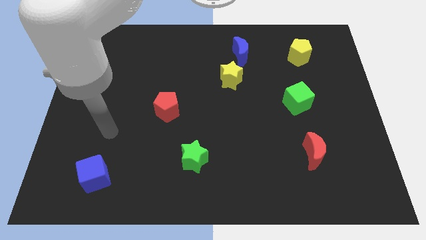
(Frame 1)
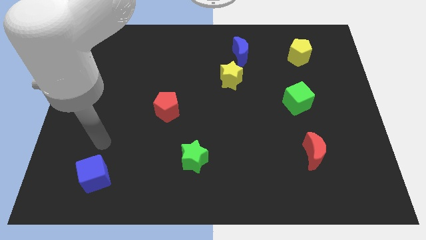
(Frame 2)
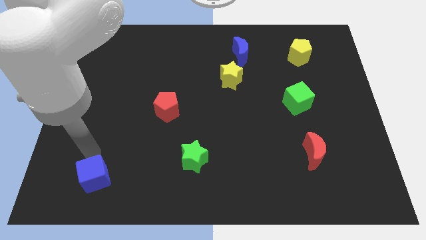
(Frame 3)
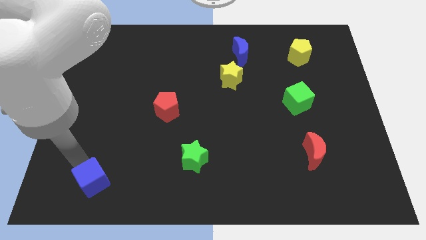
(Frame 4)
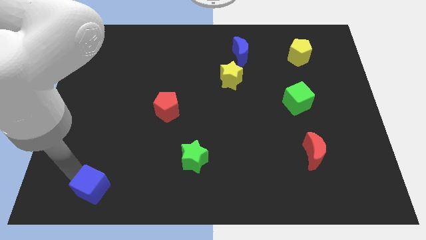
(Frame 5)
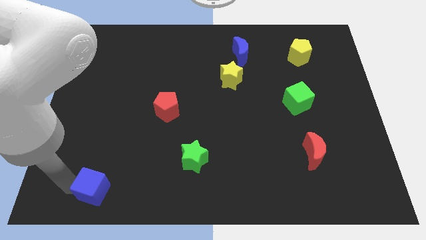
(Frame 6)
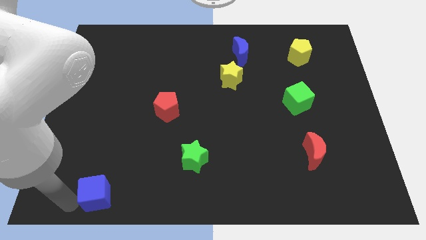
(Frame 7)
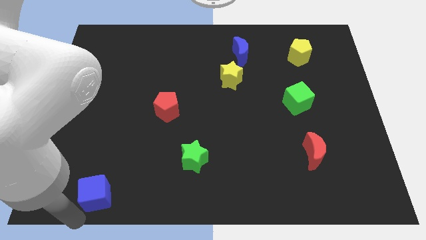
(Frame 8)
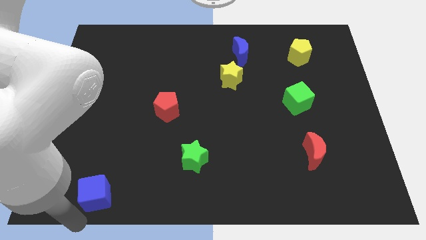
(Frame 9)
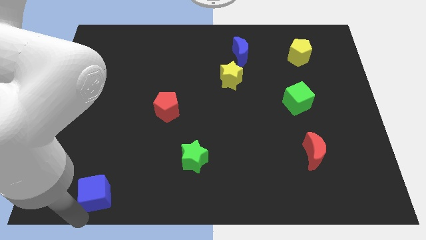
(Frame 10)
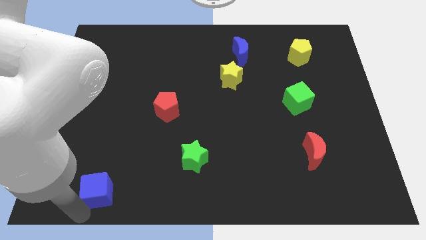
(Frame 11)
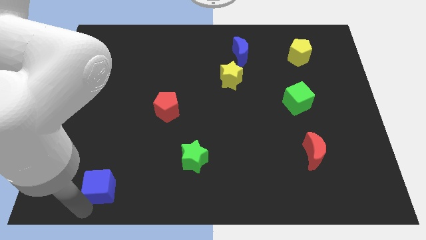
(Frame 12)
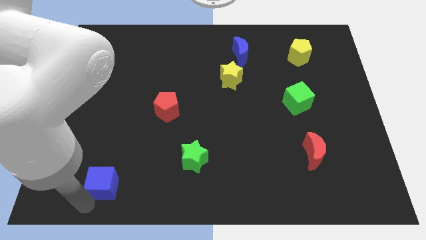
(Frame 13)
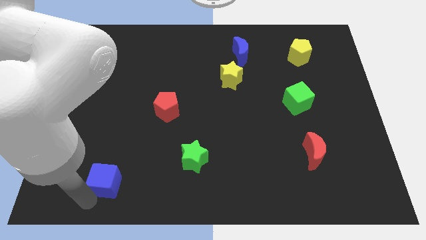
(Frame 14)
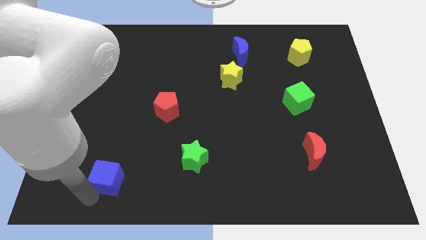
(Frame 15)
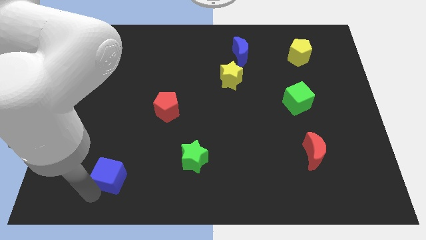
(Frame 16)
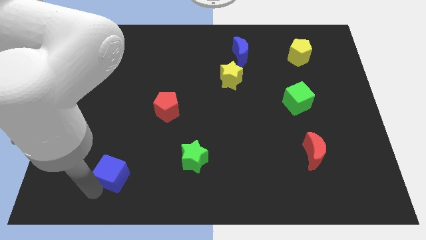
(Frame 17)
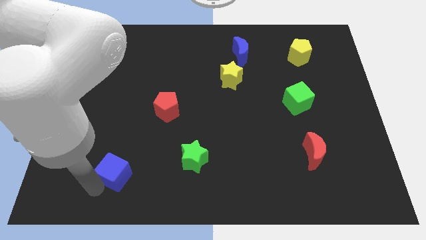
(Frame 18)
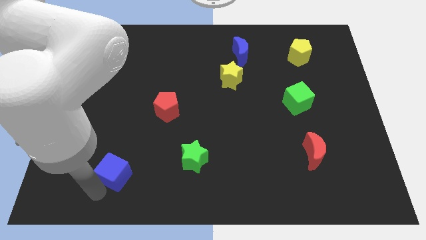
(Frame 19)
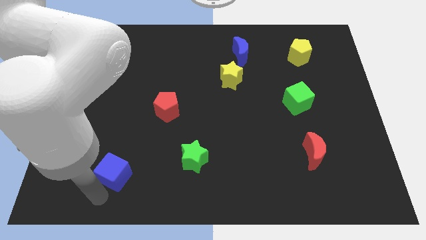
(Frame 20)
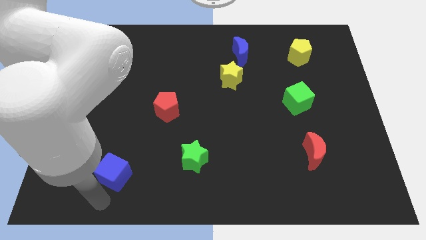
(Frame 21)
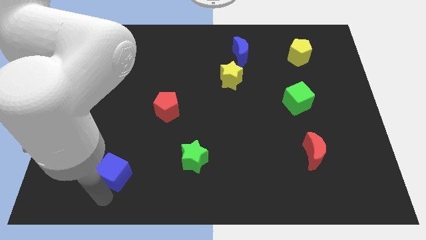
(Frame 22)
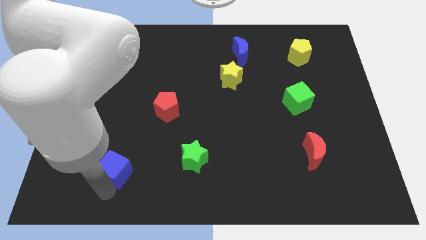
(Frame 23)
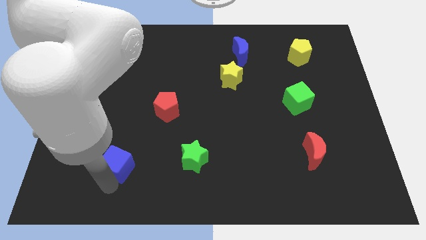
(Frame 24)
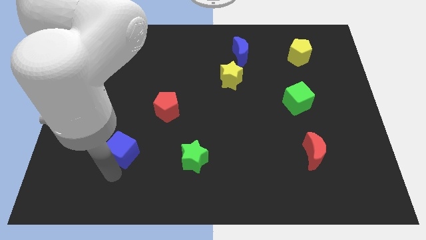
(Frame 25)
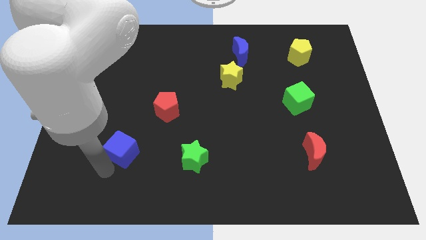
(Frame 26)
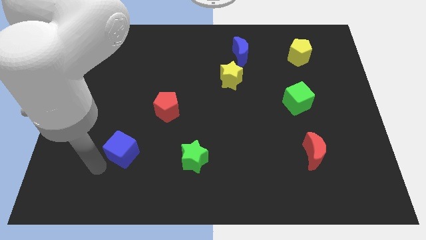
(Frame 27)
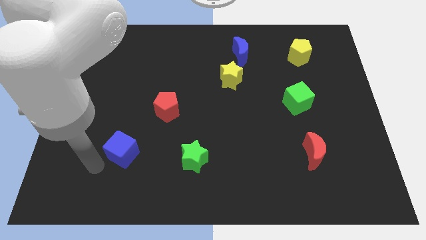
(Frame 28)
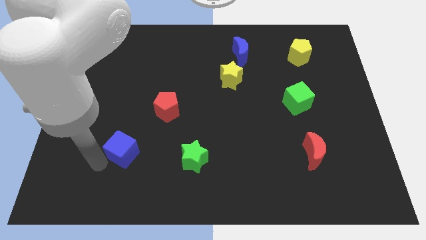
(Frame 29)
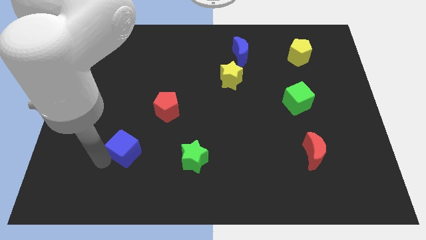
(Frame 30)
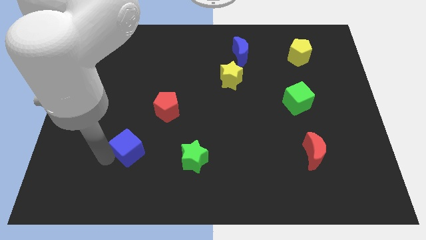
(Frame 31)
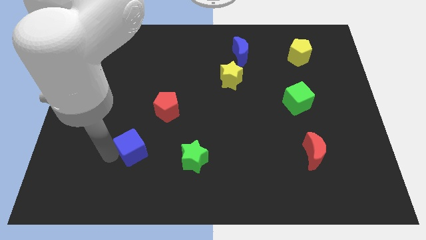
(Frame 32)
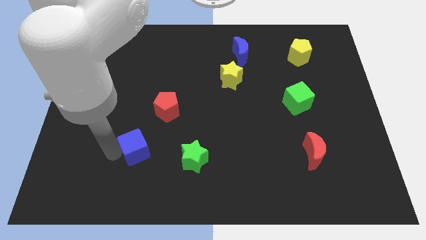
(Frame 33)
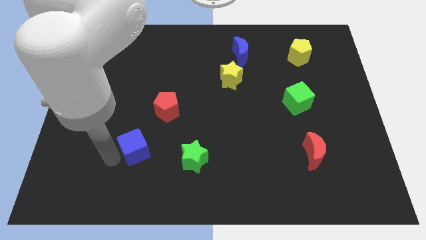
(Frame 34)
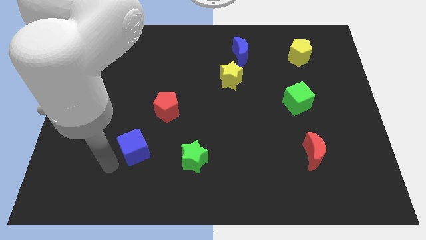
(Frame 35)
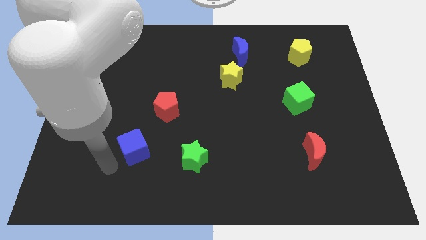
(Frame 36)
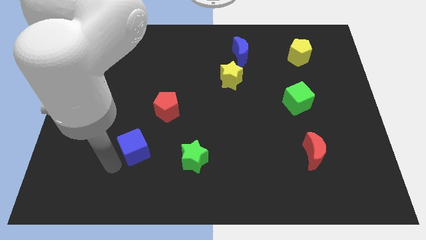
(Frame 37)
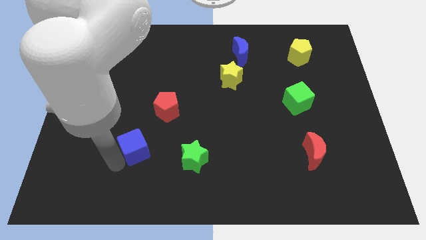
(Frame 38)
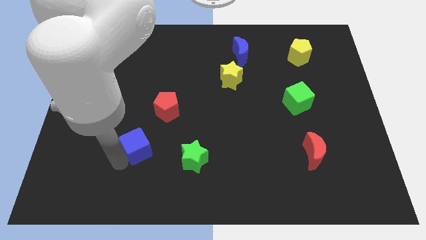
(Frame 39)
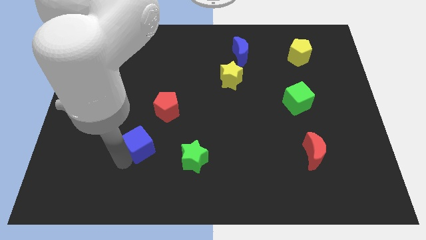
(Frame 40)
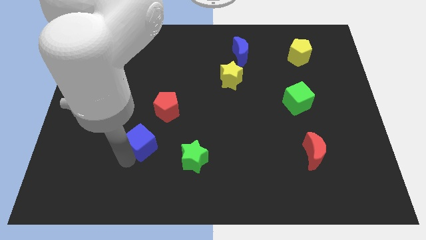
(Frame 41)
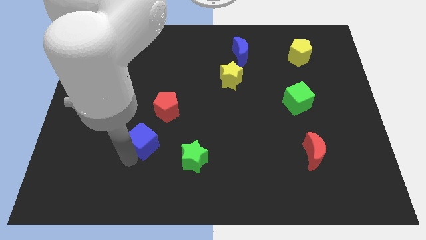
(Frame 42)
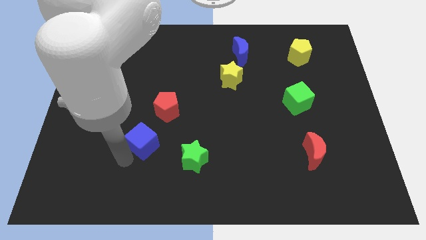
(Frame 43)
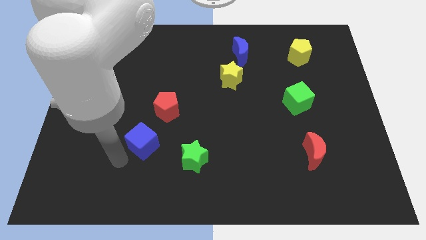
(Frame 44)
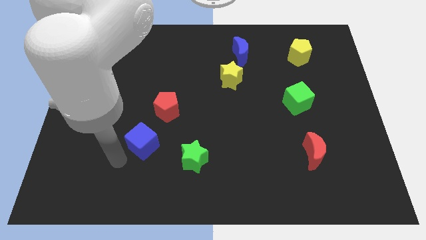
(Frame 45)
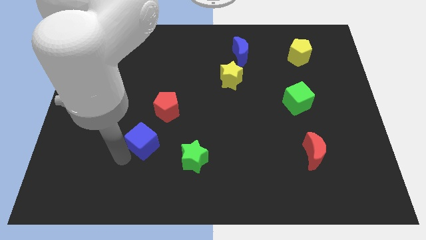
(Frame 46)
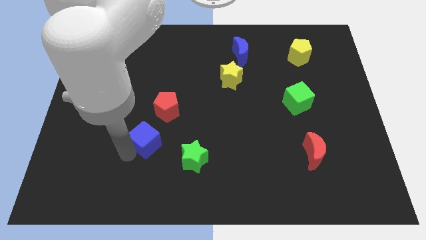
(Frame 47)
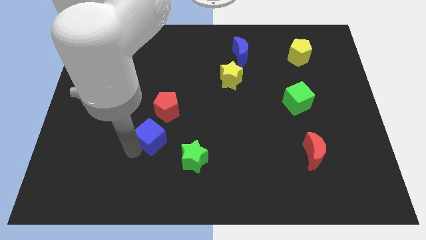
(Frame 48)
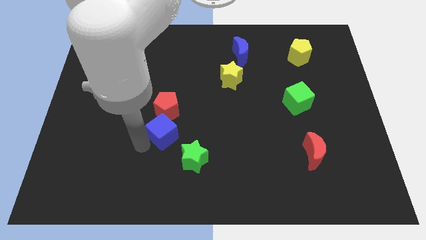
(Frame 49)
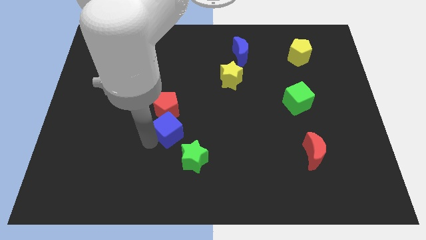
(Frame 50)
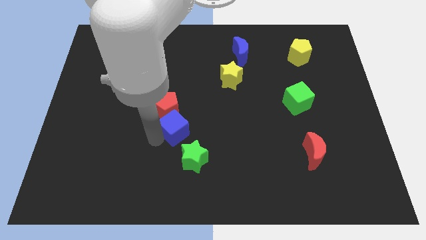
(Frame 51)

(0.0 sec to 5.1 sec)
move the blue cube to the center
